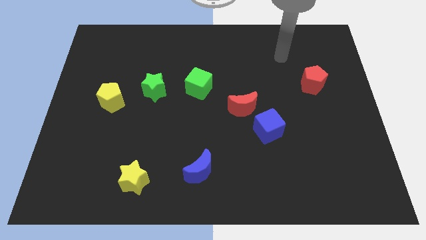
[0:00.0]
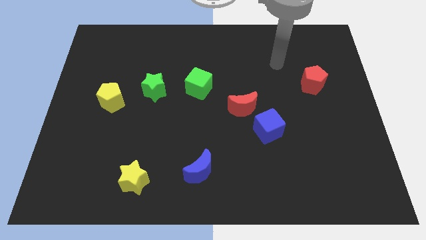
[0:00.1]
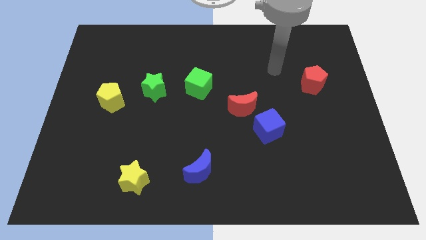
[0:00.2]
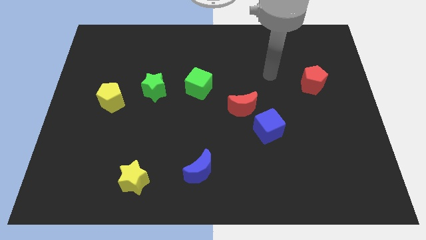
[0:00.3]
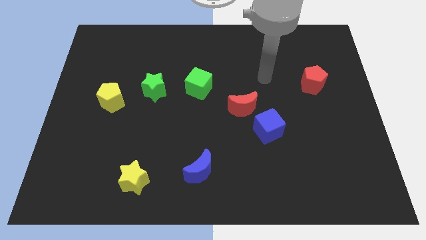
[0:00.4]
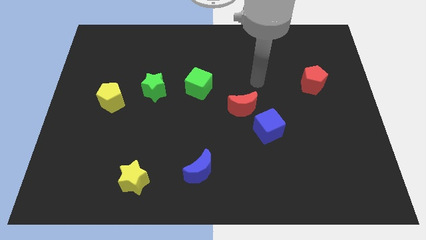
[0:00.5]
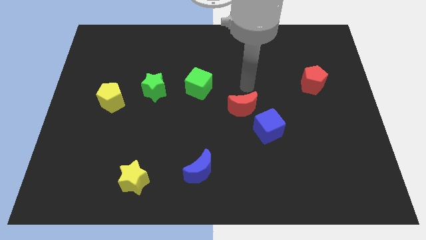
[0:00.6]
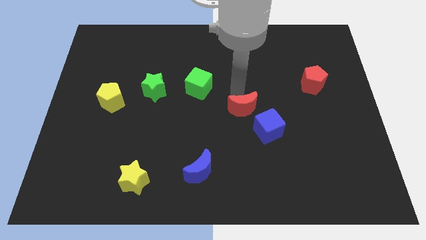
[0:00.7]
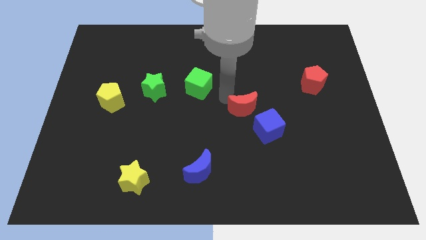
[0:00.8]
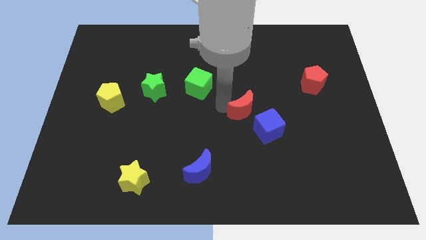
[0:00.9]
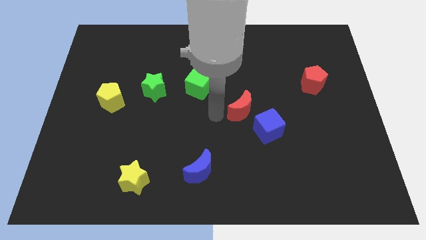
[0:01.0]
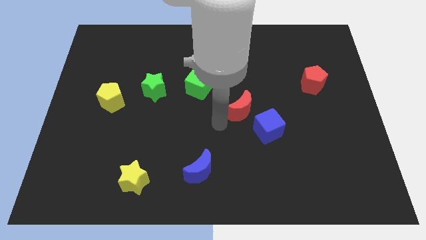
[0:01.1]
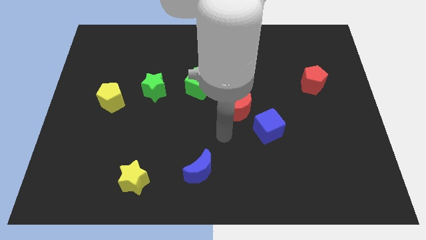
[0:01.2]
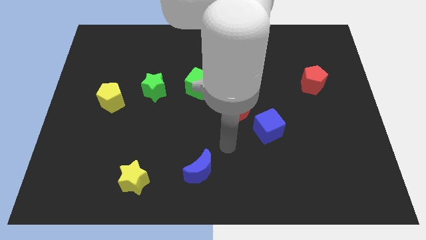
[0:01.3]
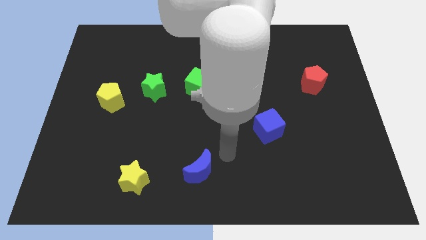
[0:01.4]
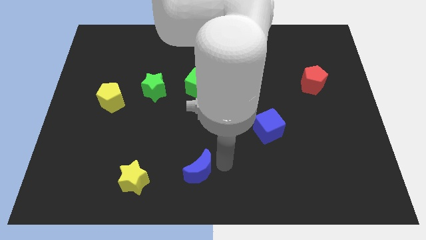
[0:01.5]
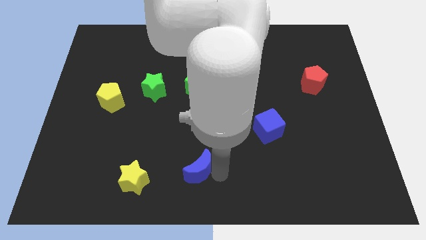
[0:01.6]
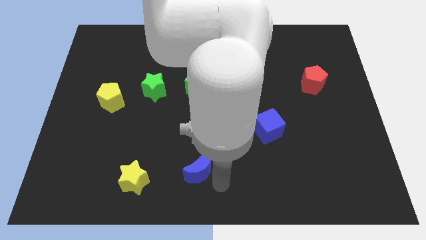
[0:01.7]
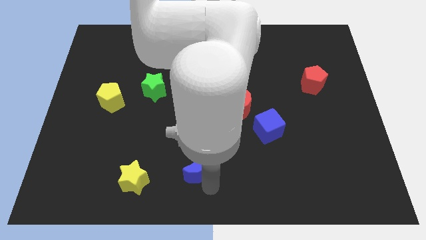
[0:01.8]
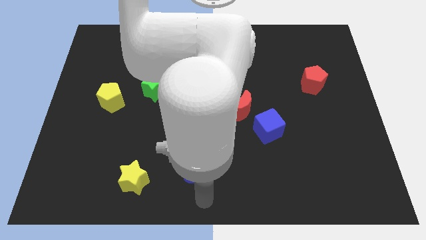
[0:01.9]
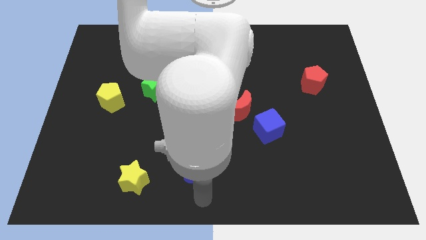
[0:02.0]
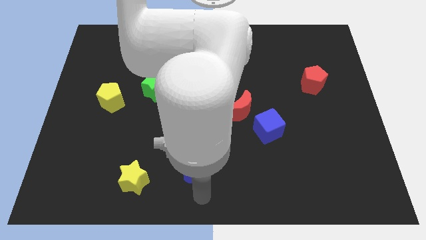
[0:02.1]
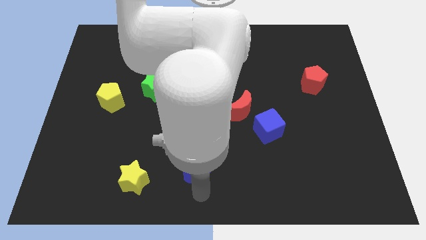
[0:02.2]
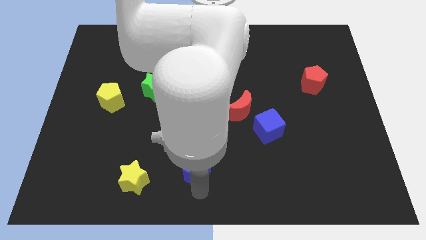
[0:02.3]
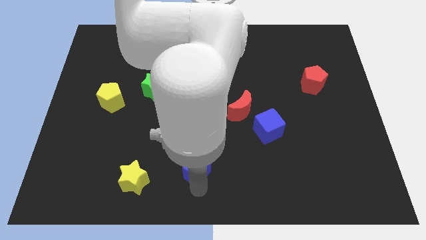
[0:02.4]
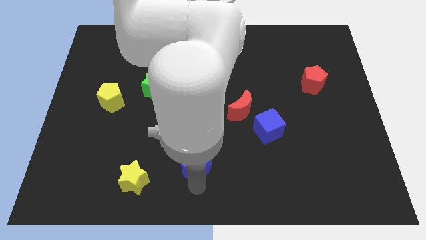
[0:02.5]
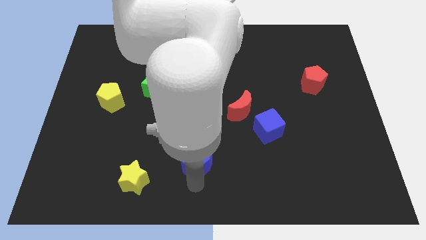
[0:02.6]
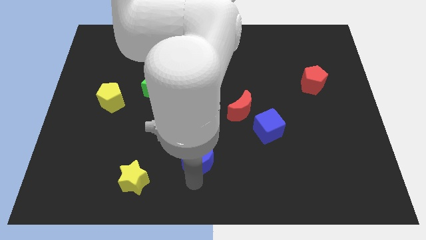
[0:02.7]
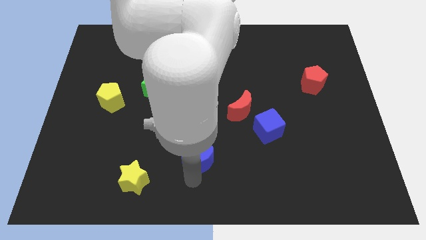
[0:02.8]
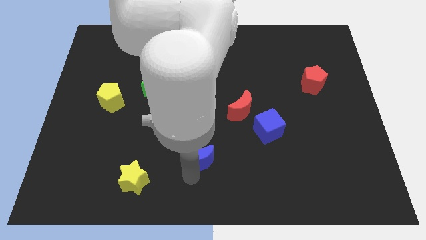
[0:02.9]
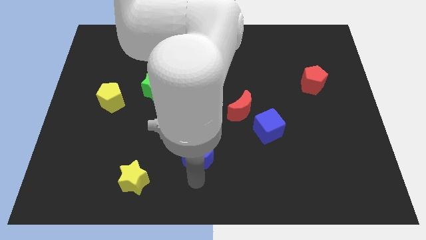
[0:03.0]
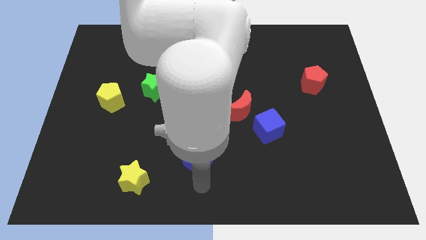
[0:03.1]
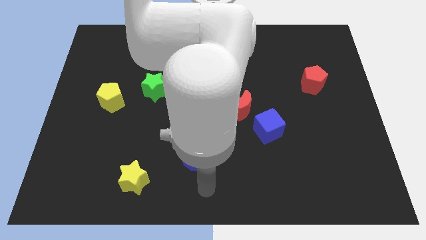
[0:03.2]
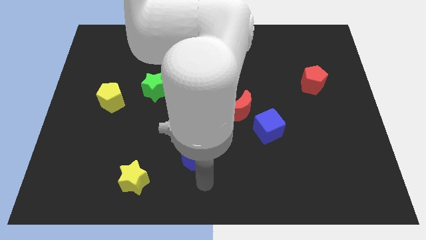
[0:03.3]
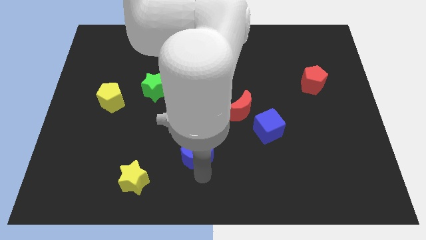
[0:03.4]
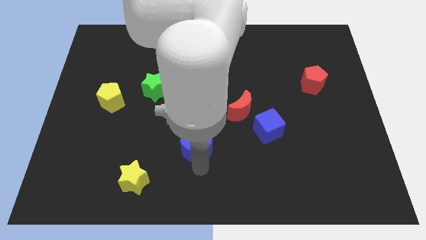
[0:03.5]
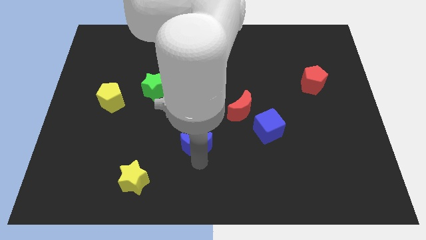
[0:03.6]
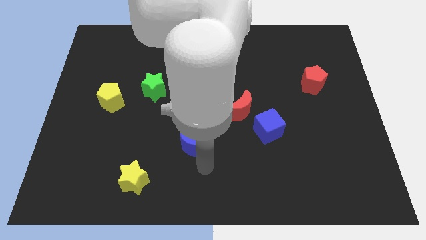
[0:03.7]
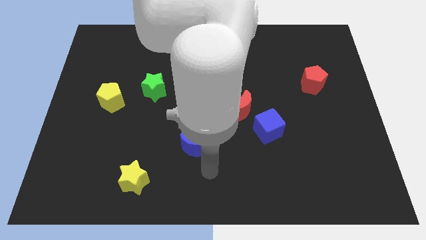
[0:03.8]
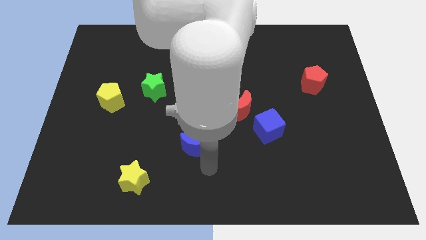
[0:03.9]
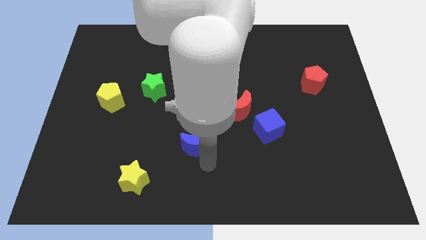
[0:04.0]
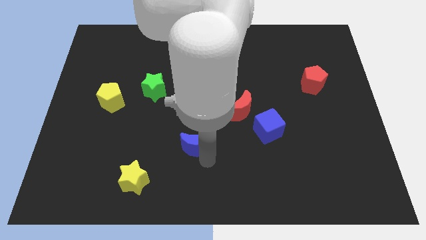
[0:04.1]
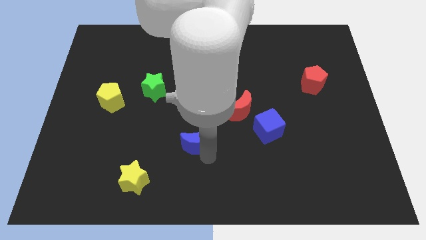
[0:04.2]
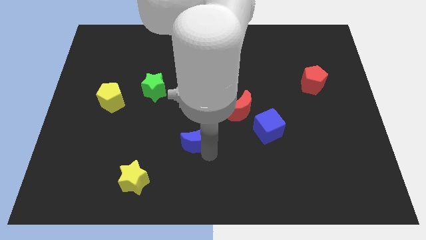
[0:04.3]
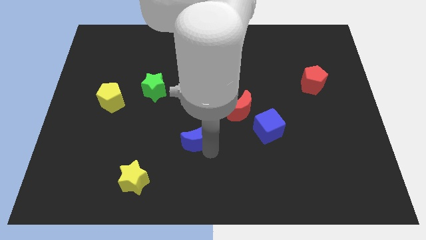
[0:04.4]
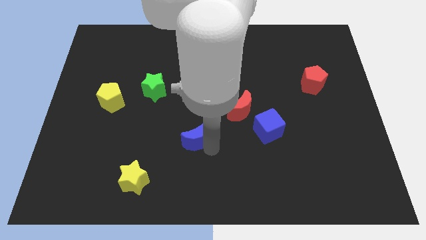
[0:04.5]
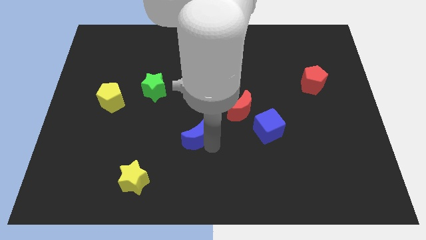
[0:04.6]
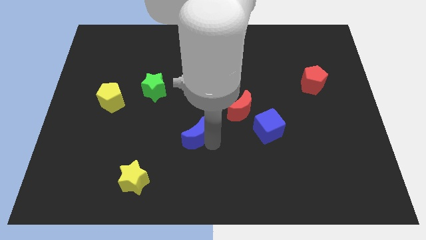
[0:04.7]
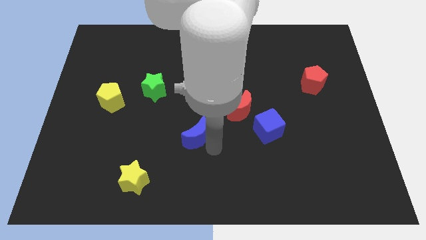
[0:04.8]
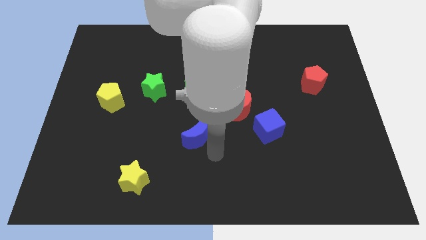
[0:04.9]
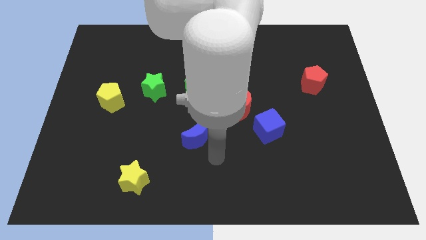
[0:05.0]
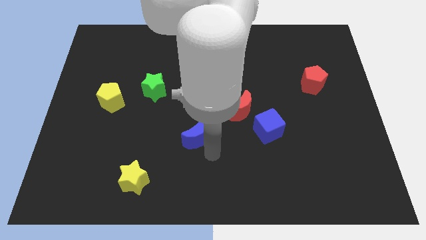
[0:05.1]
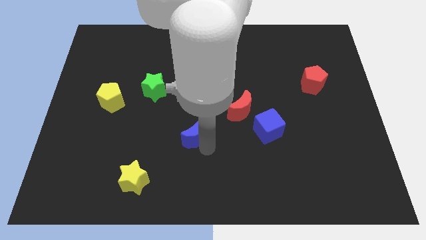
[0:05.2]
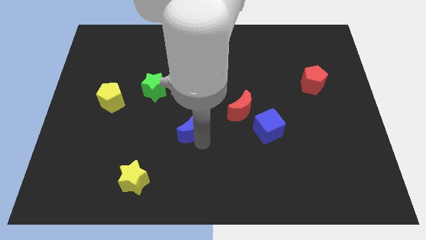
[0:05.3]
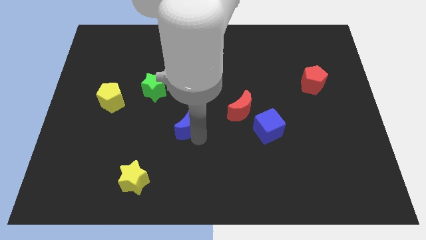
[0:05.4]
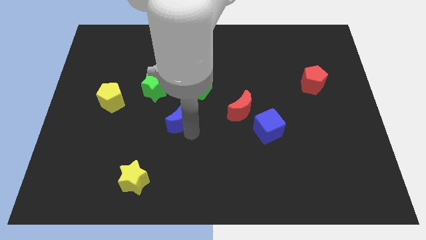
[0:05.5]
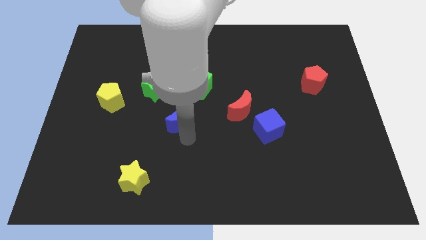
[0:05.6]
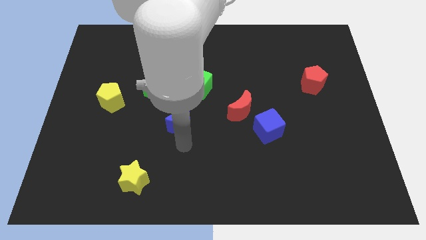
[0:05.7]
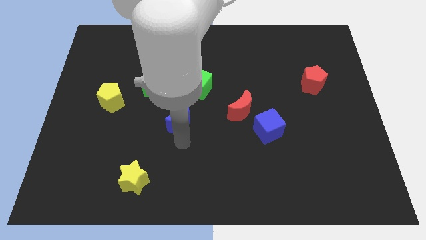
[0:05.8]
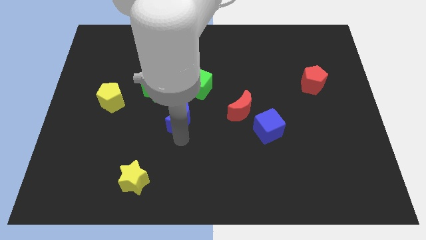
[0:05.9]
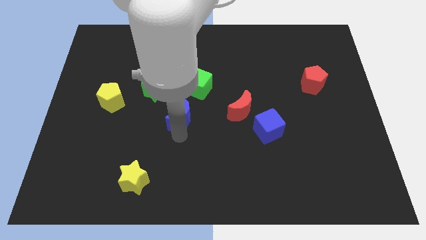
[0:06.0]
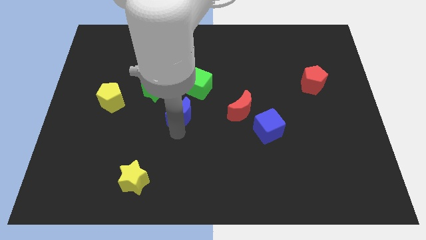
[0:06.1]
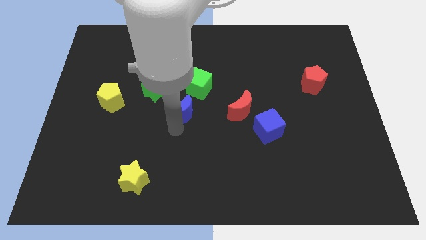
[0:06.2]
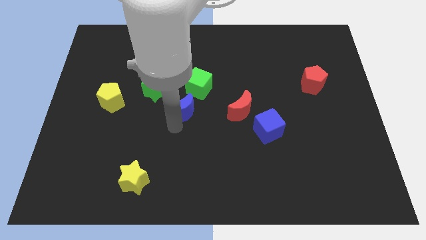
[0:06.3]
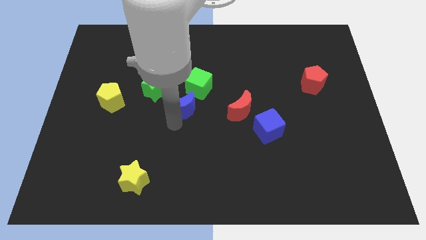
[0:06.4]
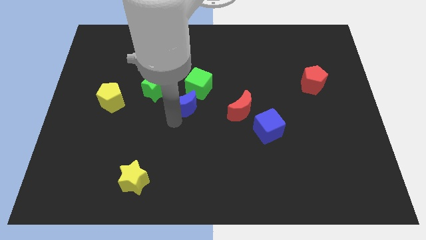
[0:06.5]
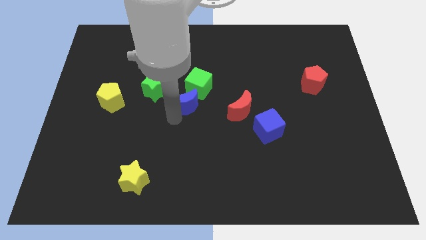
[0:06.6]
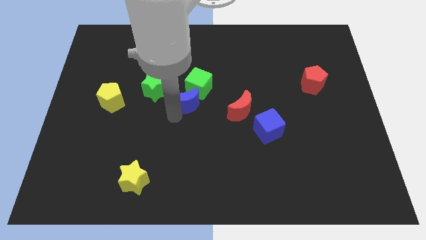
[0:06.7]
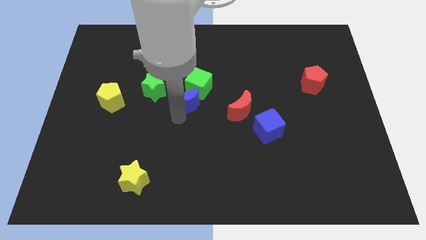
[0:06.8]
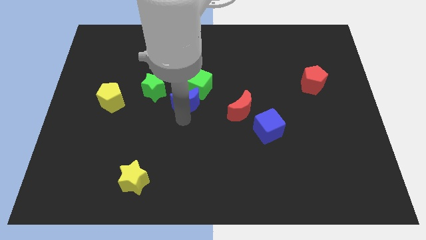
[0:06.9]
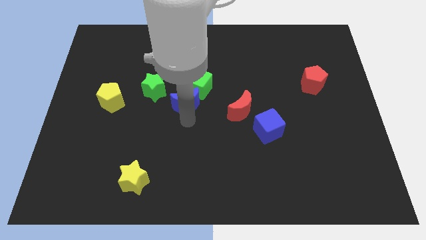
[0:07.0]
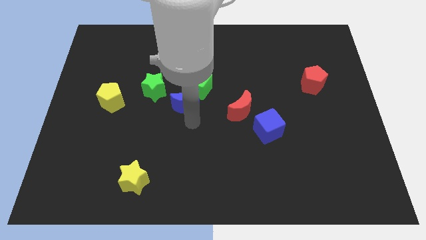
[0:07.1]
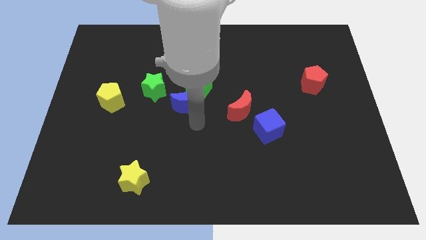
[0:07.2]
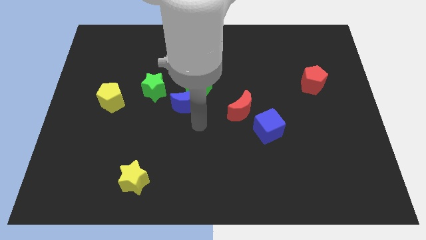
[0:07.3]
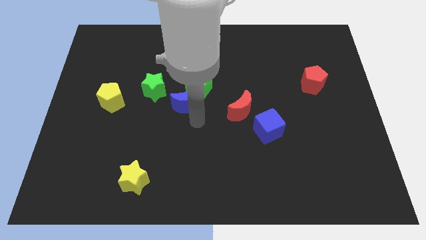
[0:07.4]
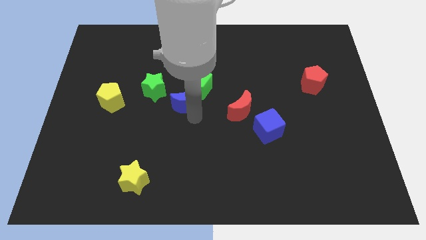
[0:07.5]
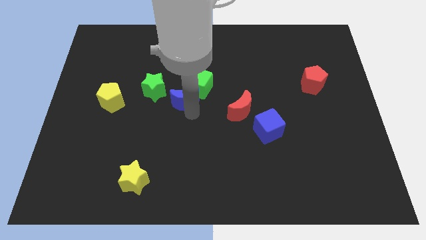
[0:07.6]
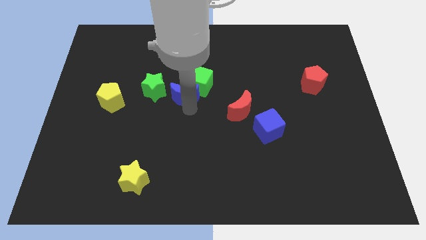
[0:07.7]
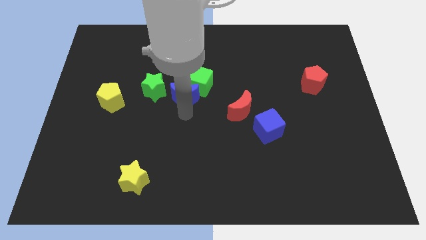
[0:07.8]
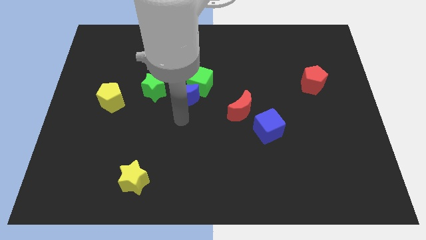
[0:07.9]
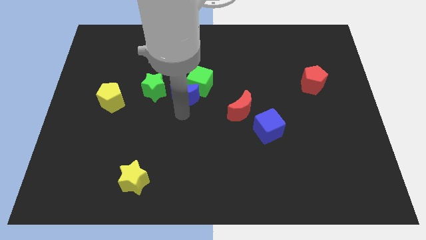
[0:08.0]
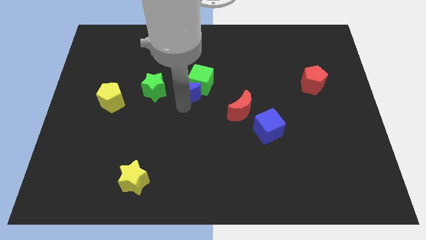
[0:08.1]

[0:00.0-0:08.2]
move the blue moon up

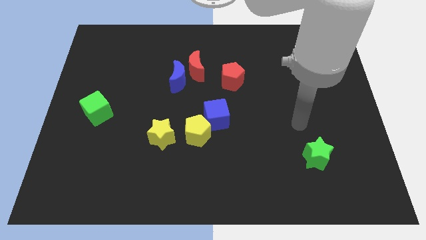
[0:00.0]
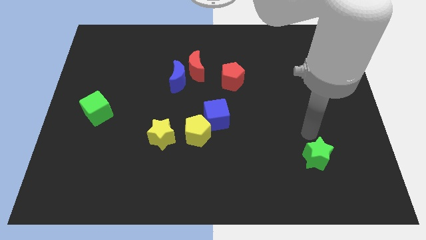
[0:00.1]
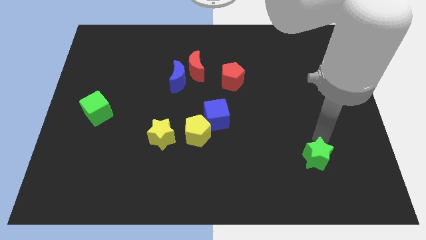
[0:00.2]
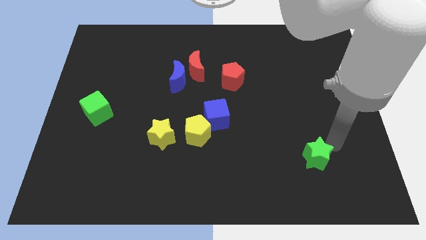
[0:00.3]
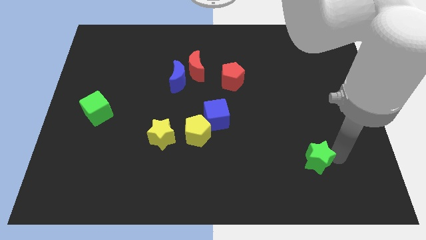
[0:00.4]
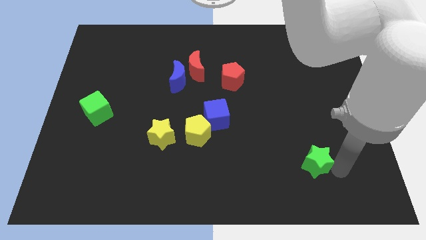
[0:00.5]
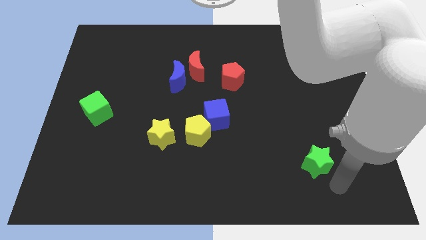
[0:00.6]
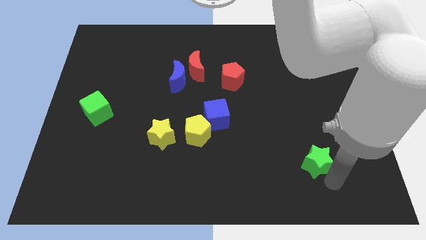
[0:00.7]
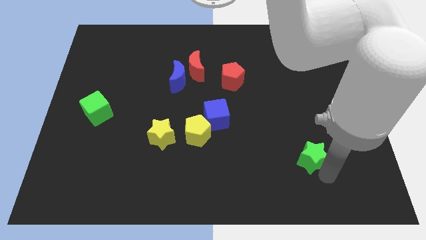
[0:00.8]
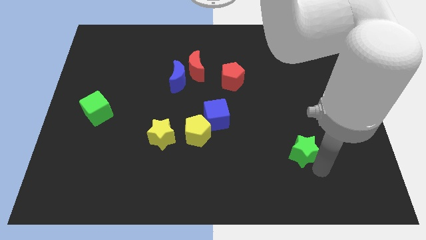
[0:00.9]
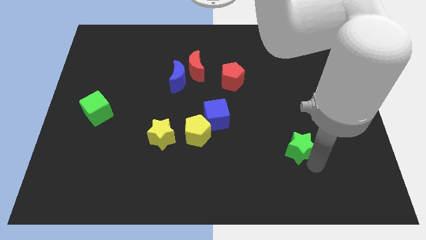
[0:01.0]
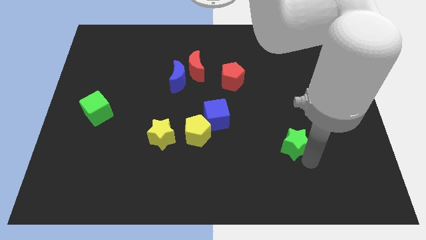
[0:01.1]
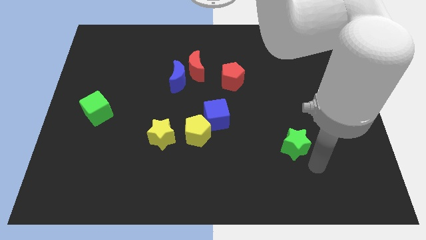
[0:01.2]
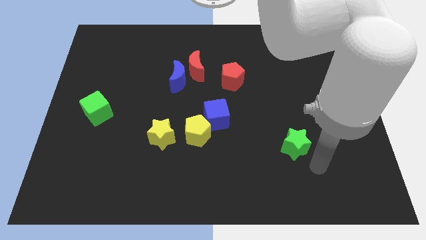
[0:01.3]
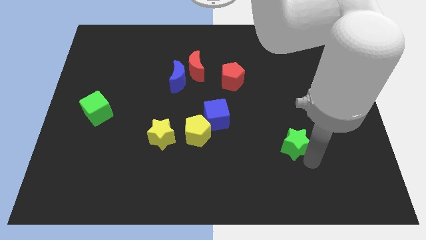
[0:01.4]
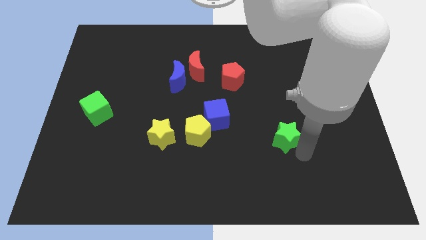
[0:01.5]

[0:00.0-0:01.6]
push the green star a bit upwards and then to the left
